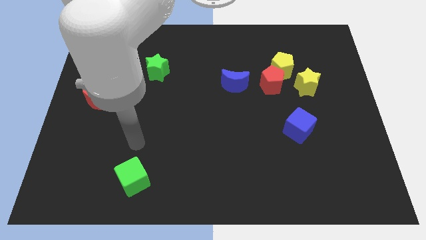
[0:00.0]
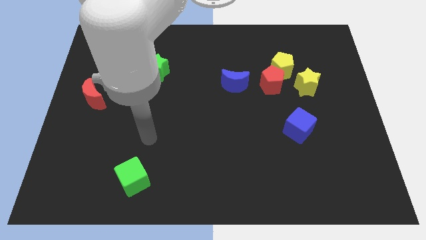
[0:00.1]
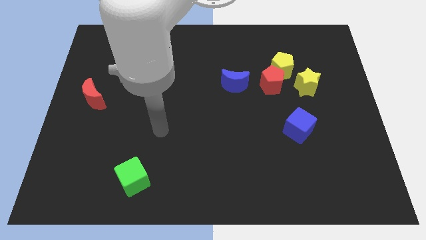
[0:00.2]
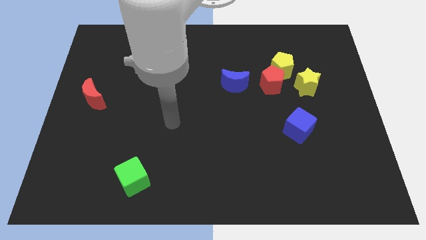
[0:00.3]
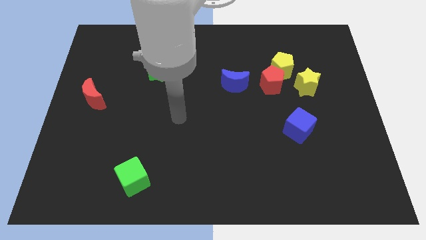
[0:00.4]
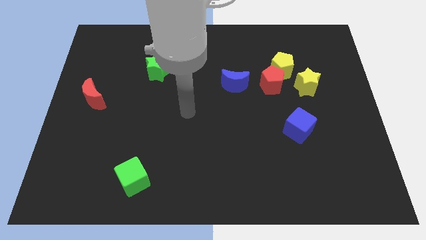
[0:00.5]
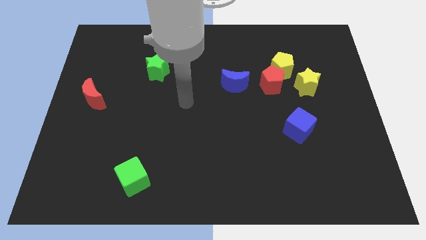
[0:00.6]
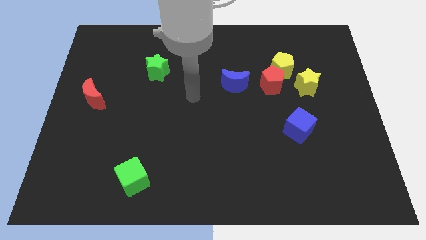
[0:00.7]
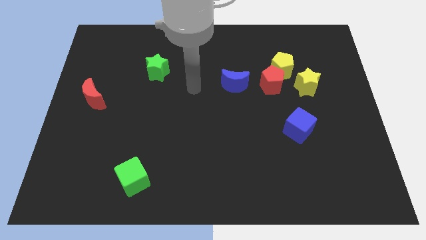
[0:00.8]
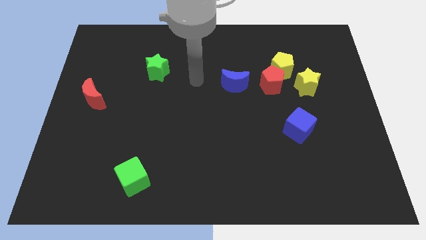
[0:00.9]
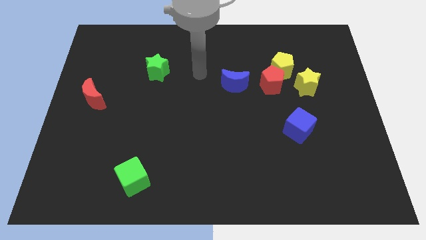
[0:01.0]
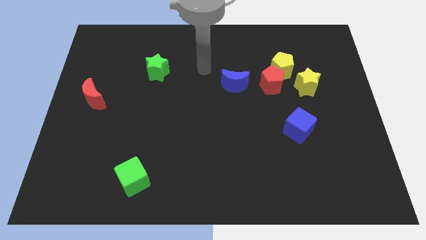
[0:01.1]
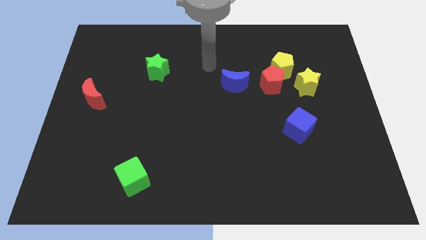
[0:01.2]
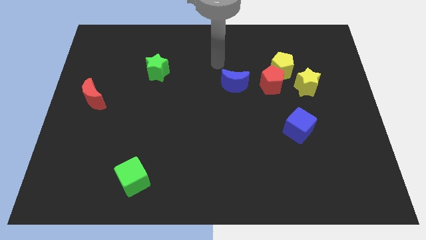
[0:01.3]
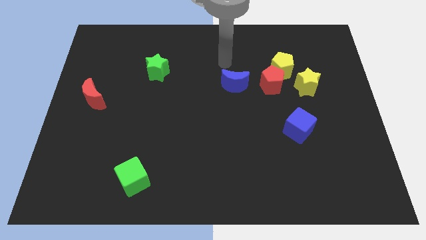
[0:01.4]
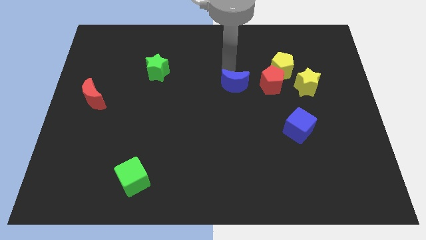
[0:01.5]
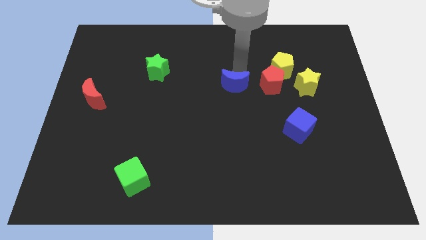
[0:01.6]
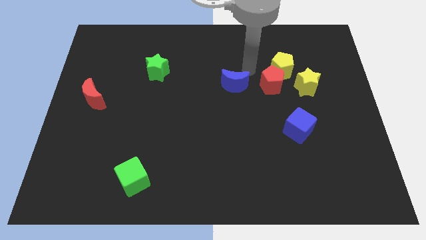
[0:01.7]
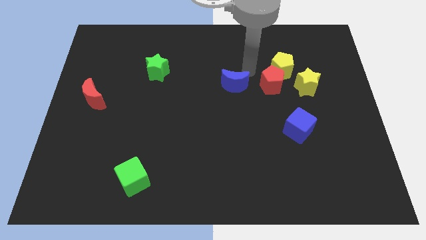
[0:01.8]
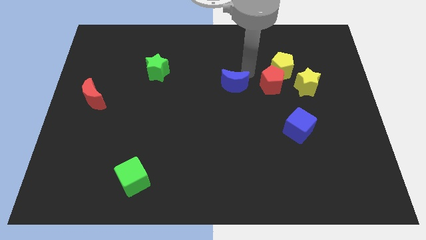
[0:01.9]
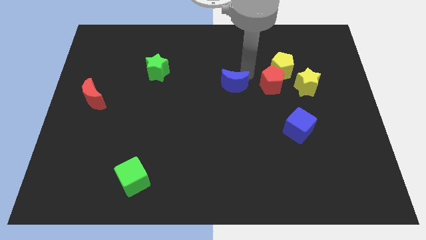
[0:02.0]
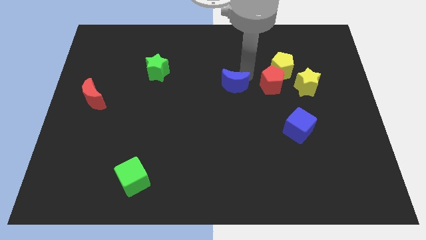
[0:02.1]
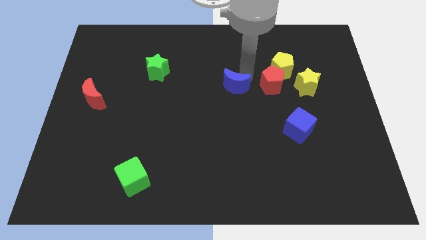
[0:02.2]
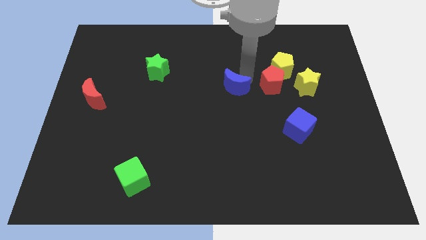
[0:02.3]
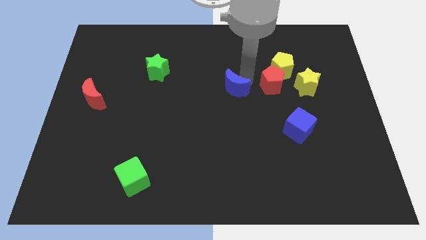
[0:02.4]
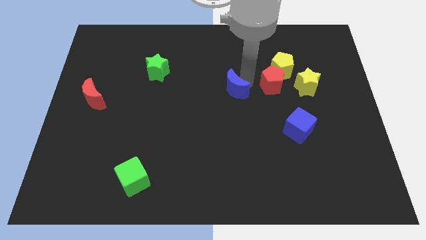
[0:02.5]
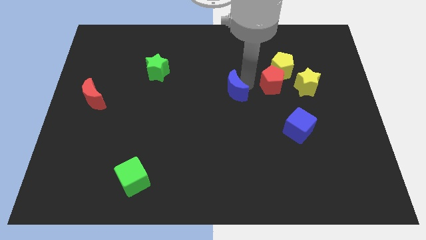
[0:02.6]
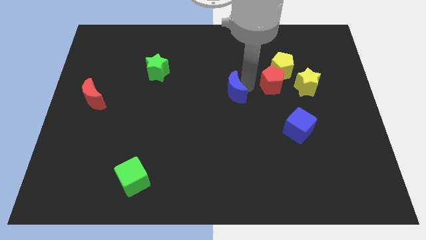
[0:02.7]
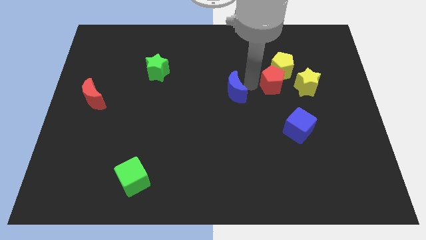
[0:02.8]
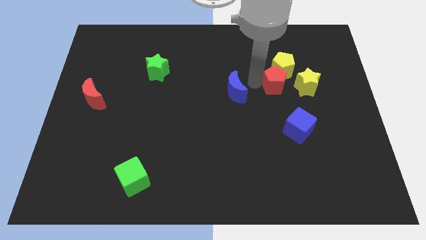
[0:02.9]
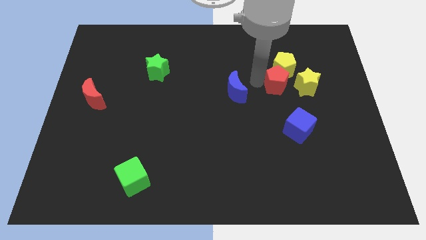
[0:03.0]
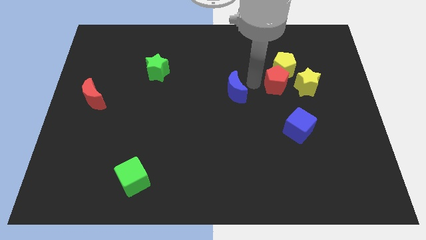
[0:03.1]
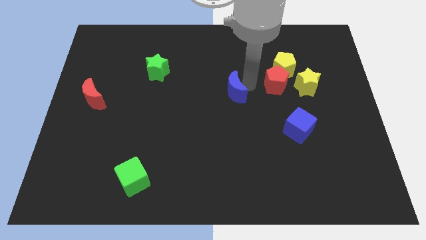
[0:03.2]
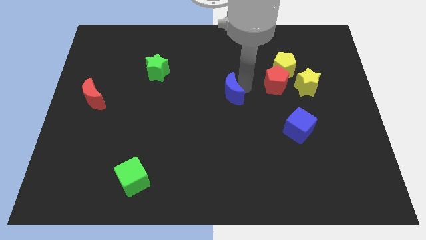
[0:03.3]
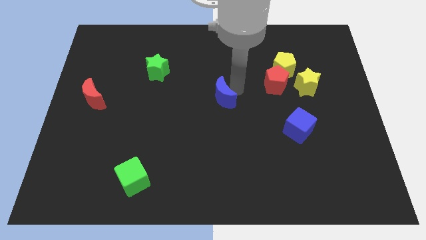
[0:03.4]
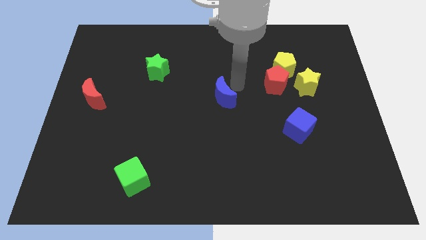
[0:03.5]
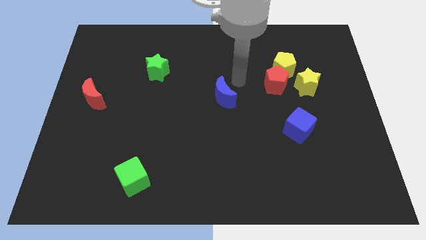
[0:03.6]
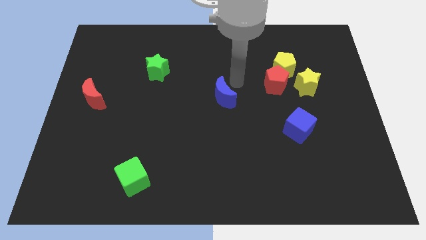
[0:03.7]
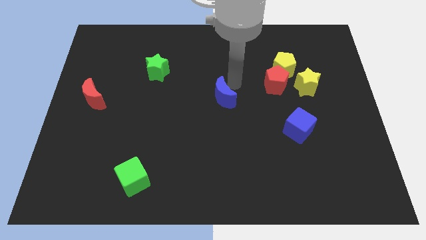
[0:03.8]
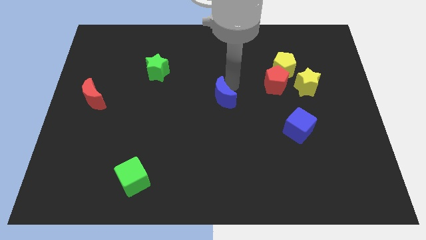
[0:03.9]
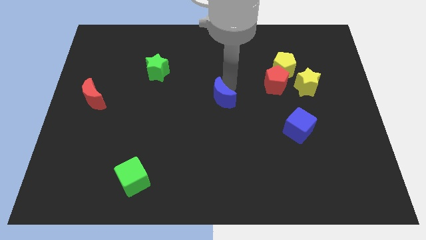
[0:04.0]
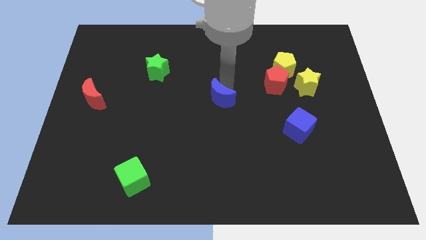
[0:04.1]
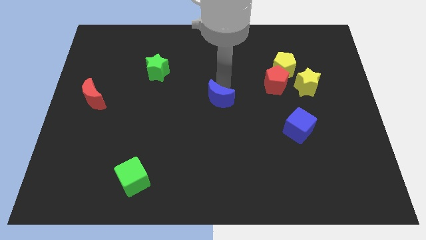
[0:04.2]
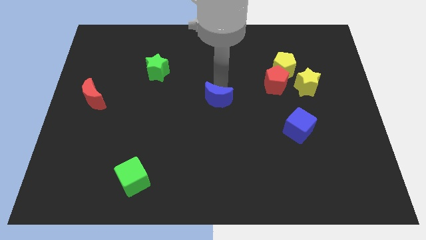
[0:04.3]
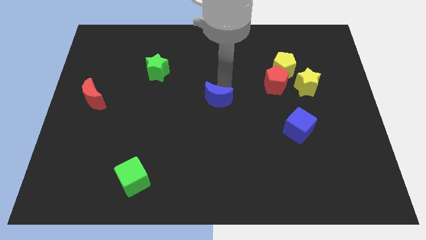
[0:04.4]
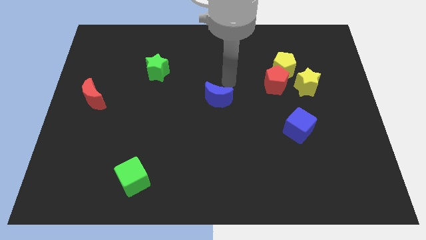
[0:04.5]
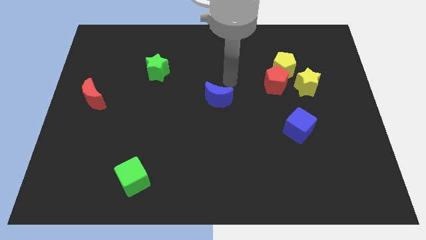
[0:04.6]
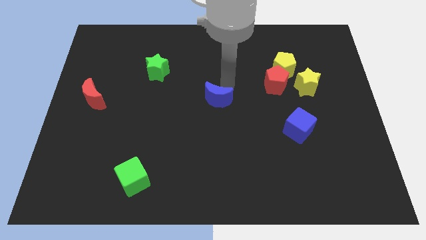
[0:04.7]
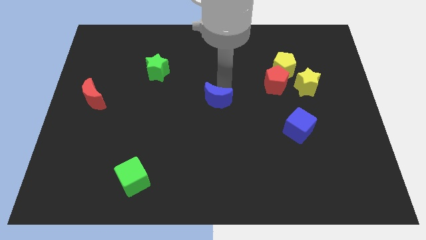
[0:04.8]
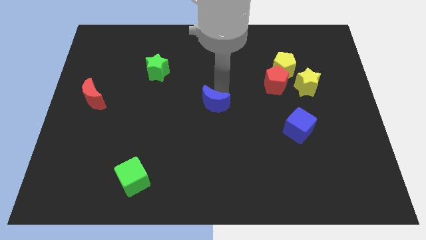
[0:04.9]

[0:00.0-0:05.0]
slightly push the blue moon diagonally down and left

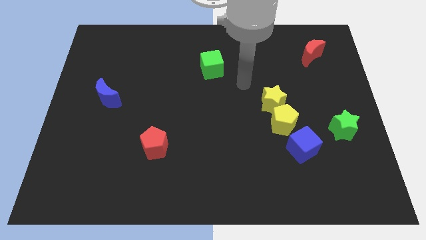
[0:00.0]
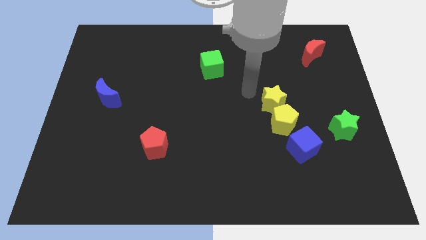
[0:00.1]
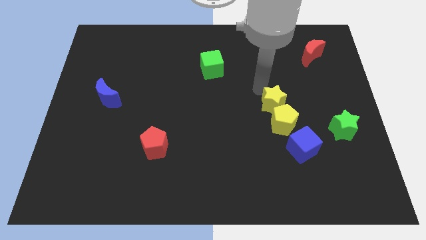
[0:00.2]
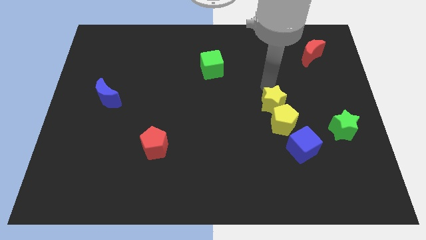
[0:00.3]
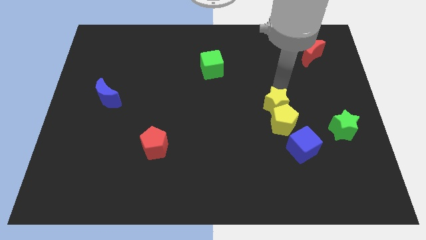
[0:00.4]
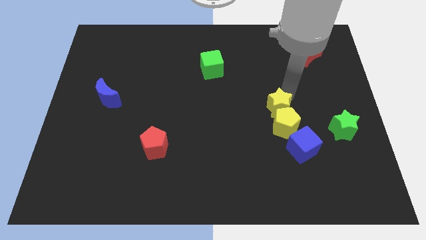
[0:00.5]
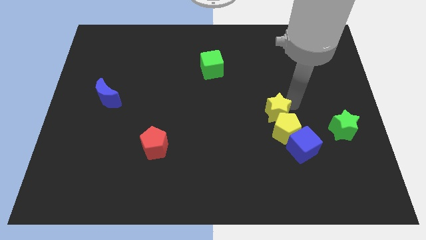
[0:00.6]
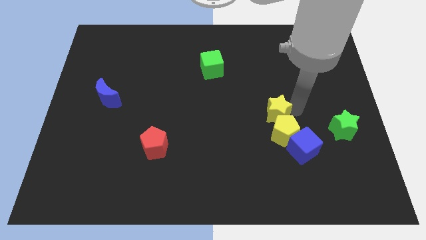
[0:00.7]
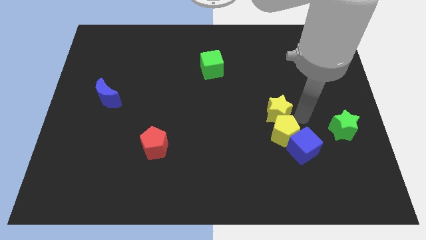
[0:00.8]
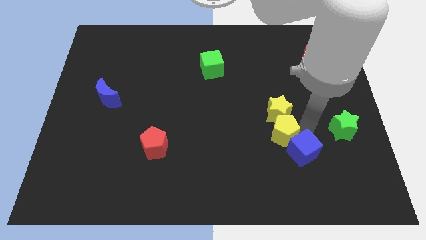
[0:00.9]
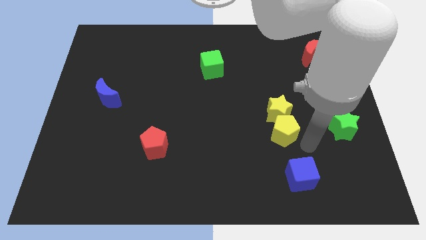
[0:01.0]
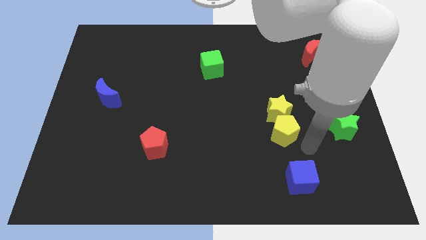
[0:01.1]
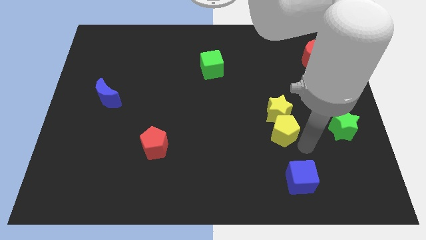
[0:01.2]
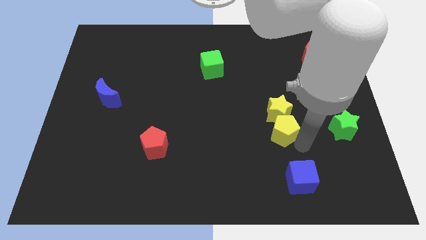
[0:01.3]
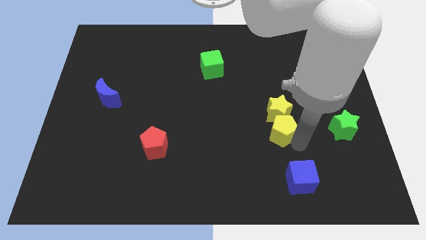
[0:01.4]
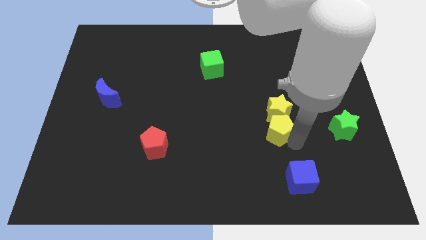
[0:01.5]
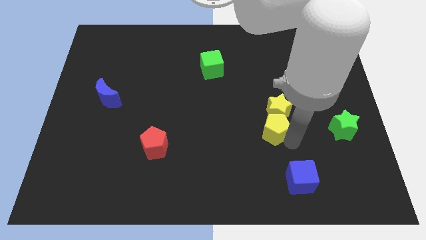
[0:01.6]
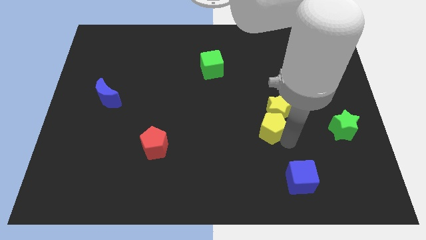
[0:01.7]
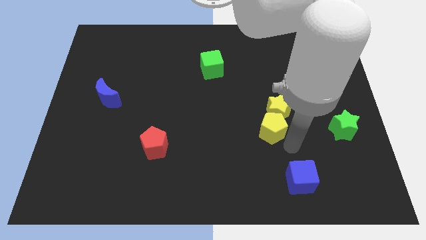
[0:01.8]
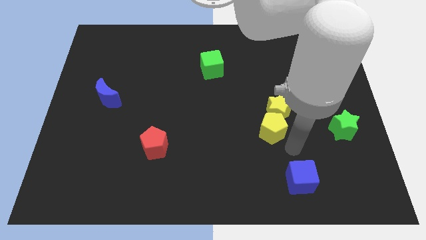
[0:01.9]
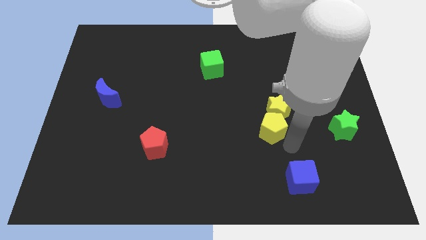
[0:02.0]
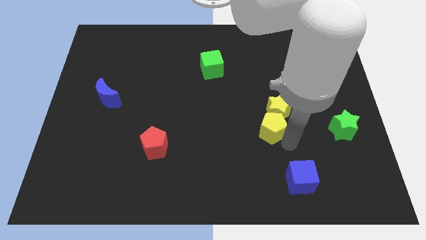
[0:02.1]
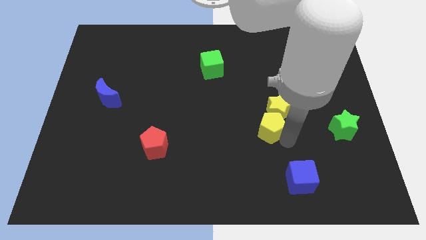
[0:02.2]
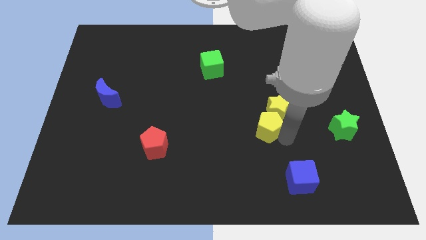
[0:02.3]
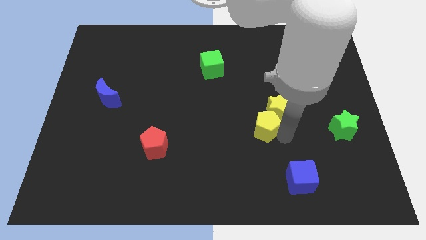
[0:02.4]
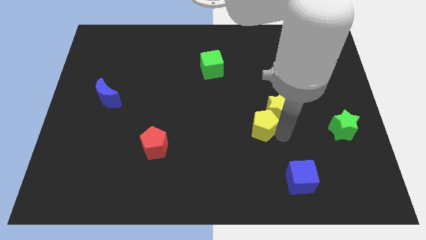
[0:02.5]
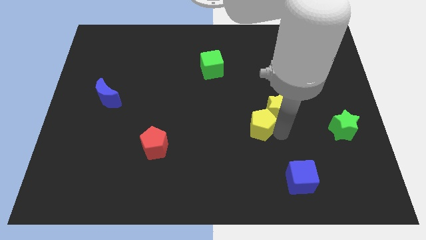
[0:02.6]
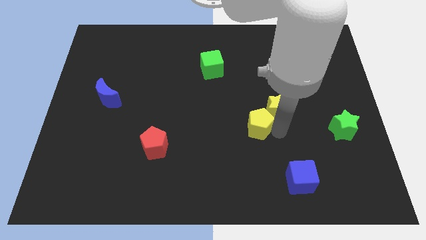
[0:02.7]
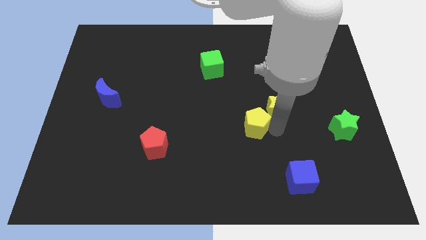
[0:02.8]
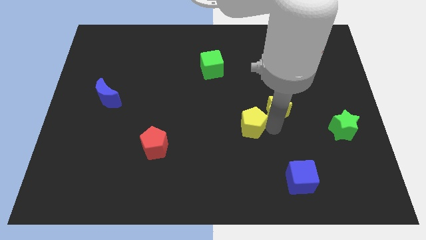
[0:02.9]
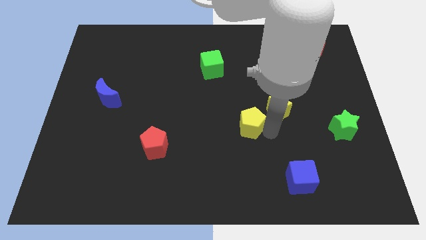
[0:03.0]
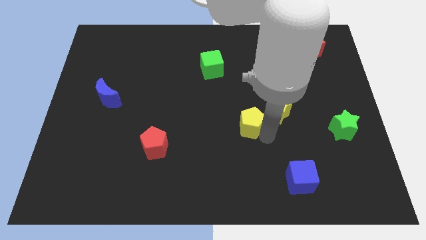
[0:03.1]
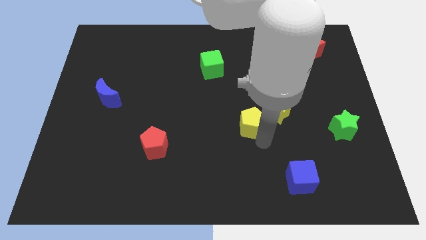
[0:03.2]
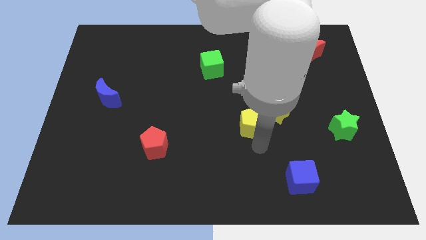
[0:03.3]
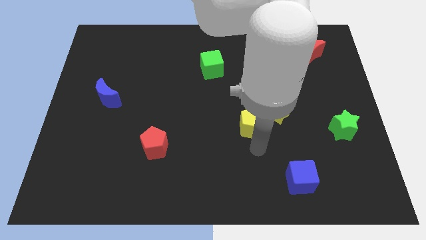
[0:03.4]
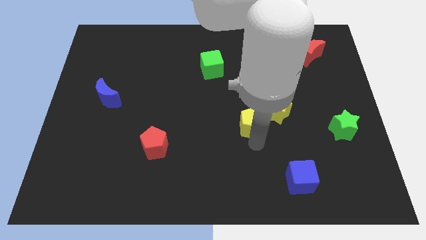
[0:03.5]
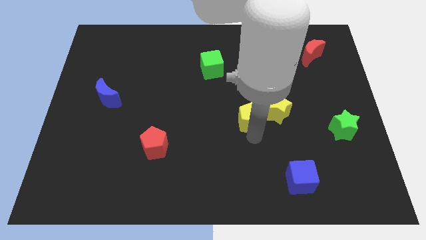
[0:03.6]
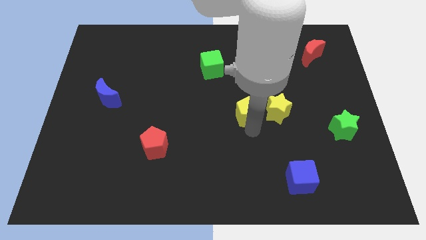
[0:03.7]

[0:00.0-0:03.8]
push the yellow pentagon diagonally upwards and left somewhat
